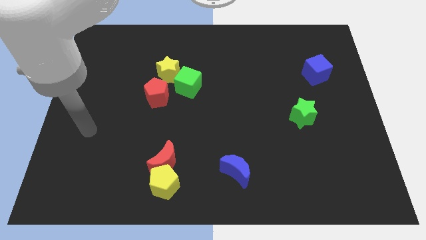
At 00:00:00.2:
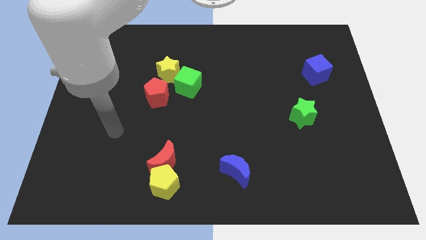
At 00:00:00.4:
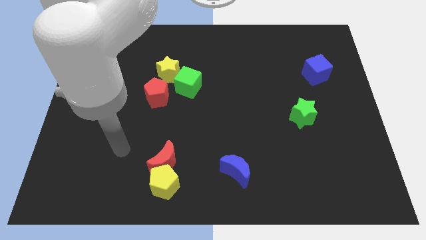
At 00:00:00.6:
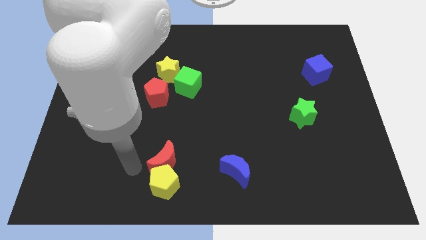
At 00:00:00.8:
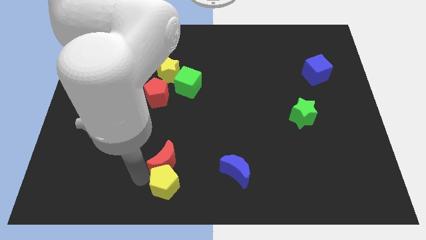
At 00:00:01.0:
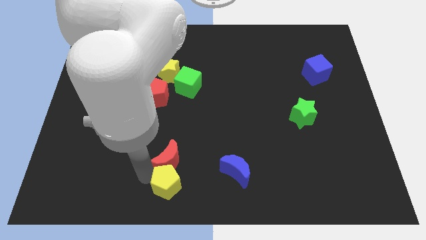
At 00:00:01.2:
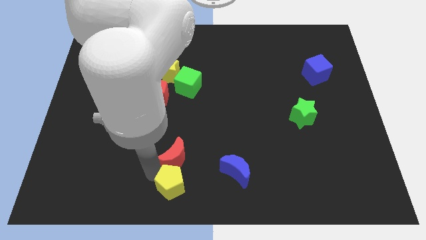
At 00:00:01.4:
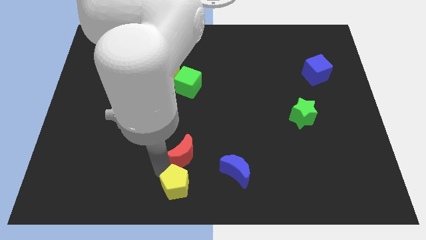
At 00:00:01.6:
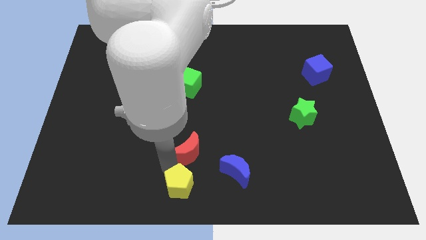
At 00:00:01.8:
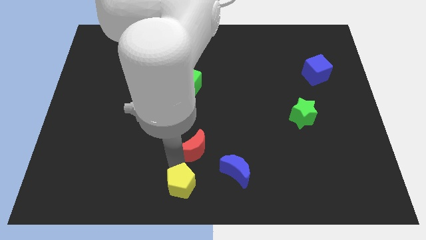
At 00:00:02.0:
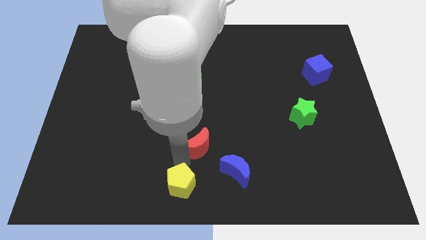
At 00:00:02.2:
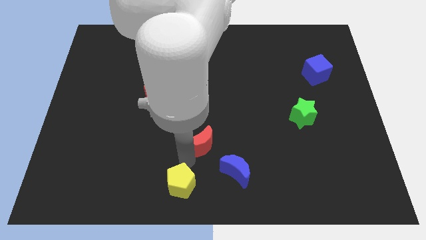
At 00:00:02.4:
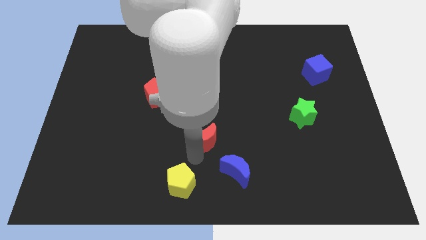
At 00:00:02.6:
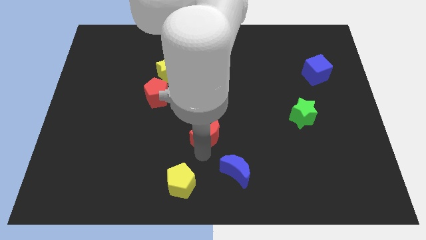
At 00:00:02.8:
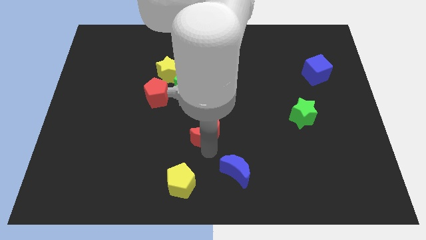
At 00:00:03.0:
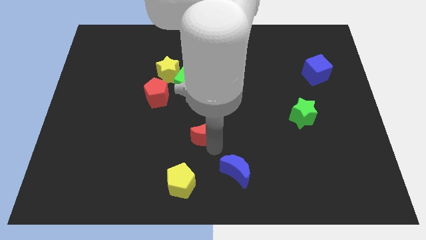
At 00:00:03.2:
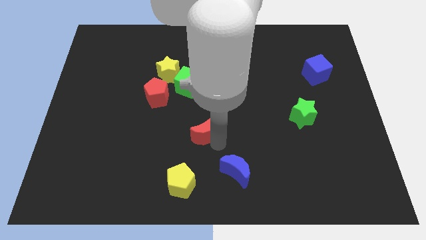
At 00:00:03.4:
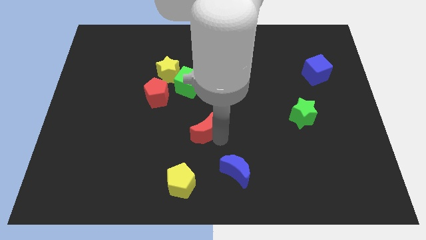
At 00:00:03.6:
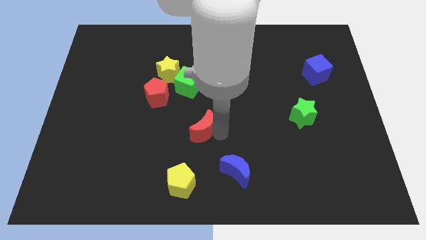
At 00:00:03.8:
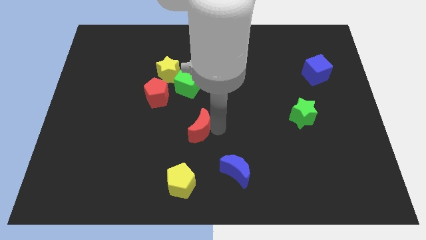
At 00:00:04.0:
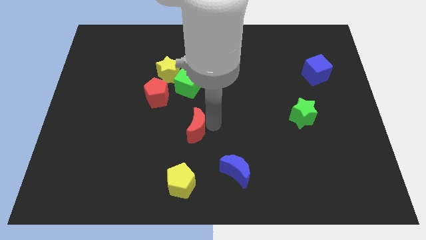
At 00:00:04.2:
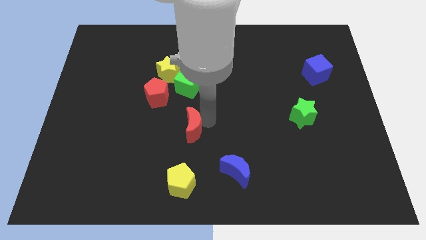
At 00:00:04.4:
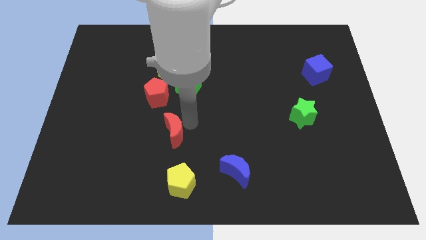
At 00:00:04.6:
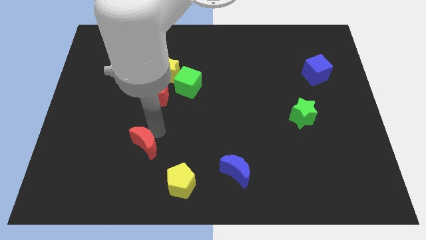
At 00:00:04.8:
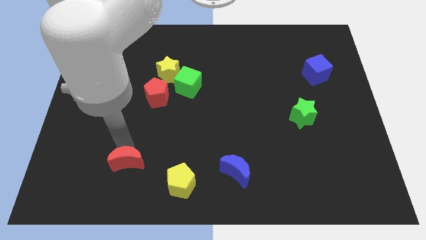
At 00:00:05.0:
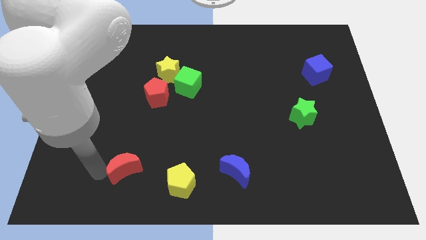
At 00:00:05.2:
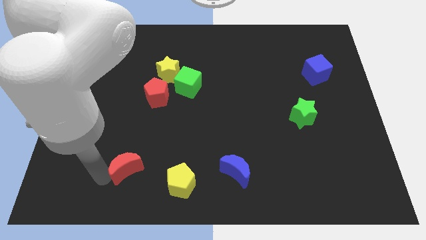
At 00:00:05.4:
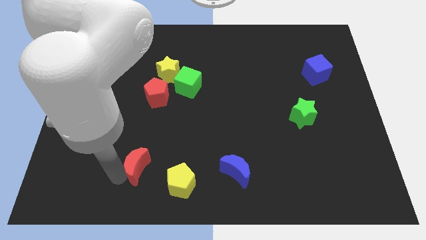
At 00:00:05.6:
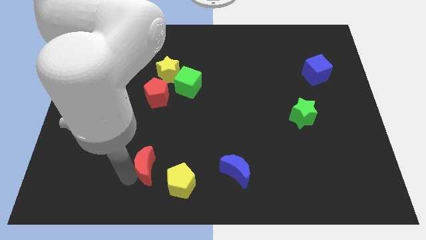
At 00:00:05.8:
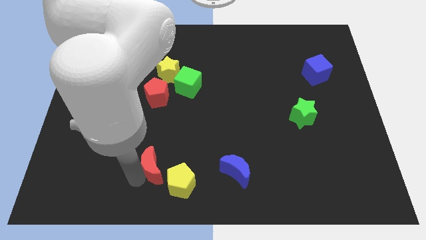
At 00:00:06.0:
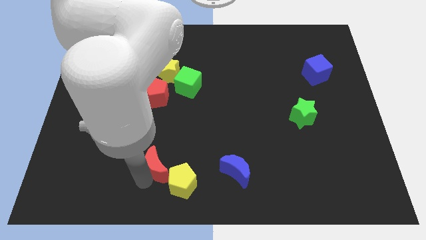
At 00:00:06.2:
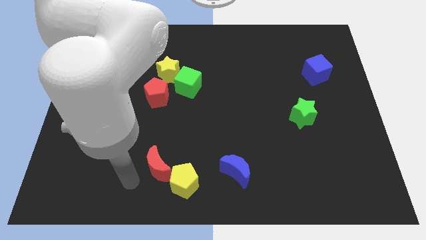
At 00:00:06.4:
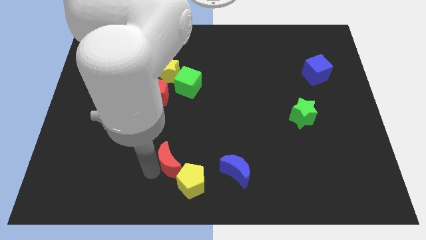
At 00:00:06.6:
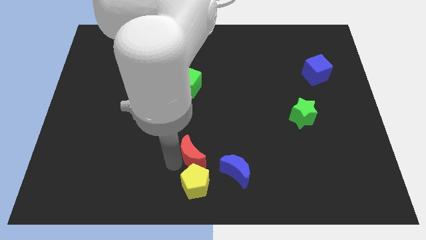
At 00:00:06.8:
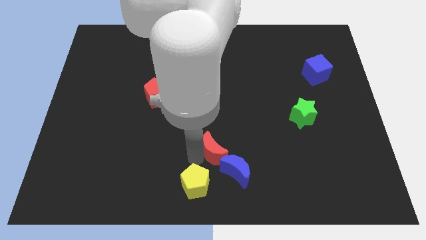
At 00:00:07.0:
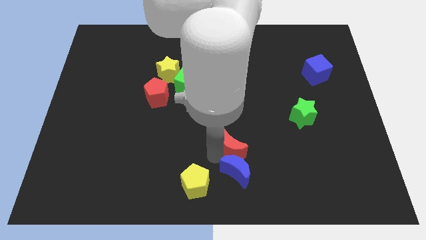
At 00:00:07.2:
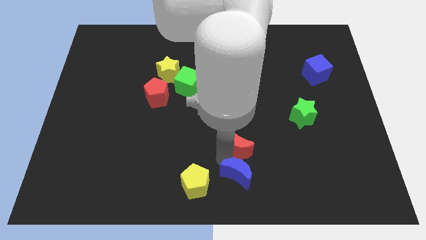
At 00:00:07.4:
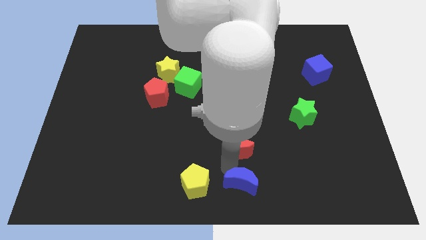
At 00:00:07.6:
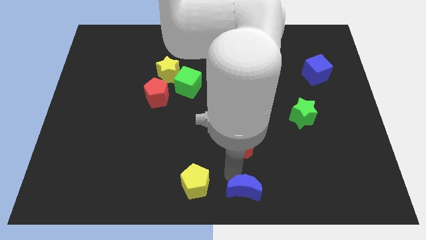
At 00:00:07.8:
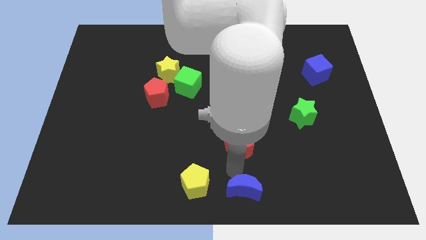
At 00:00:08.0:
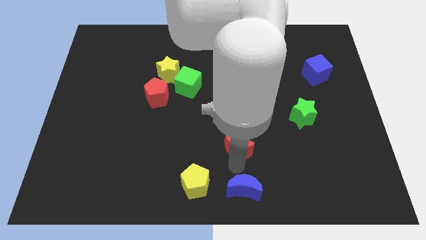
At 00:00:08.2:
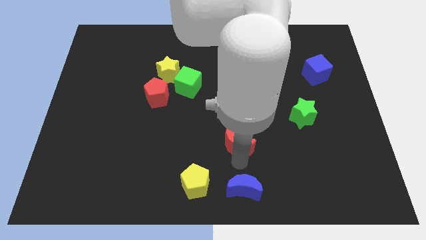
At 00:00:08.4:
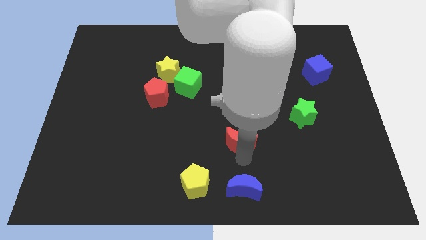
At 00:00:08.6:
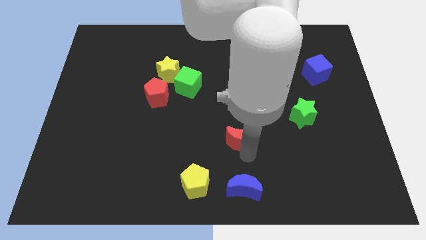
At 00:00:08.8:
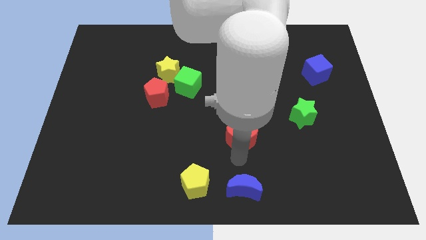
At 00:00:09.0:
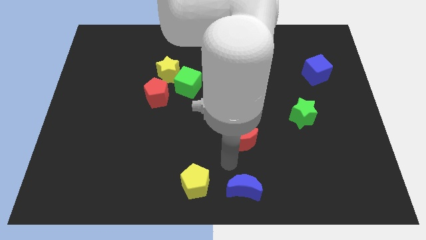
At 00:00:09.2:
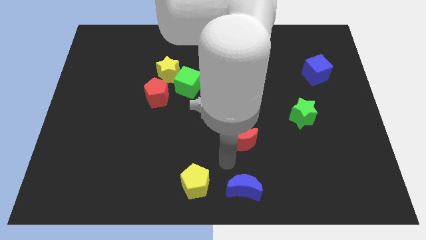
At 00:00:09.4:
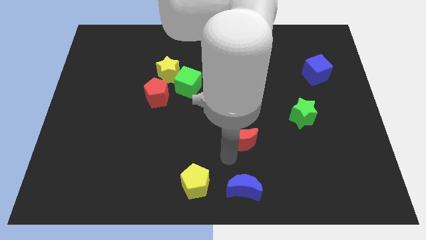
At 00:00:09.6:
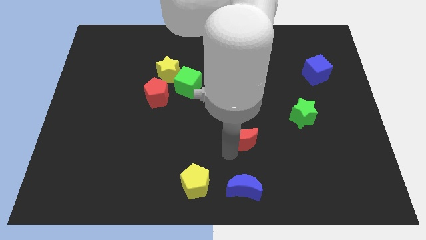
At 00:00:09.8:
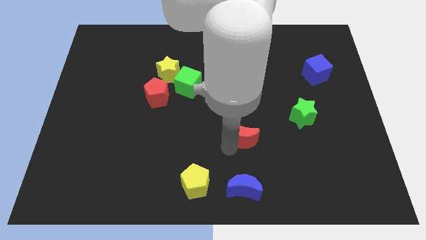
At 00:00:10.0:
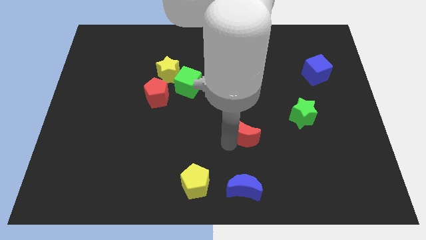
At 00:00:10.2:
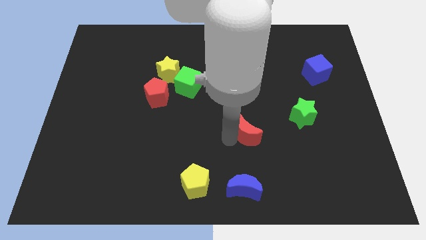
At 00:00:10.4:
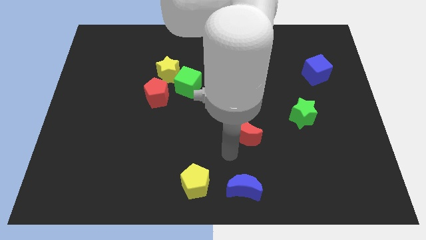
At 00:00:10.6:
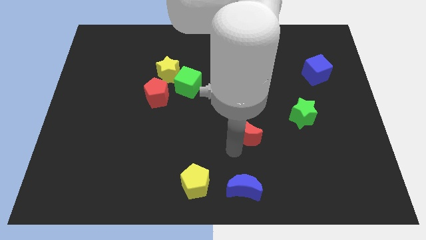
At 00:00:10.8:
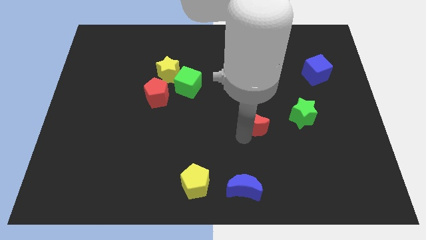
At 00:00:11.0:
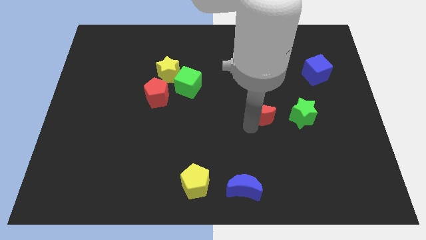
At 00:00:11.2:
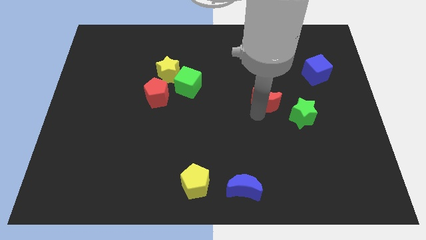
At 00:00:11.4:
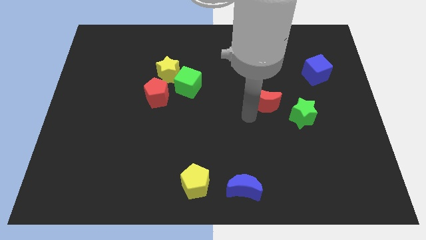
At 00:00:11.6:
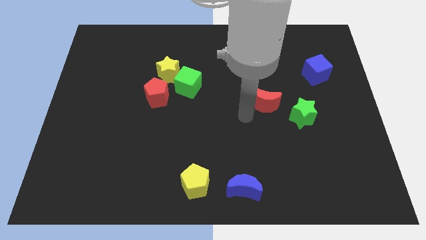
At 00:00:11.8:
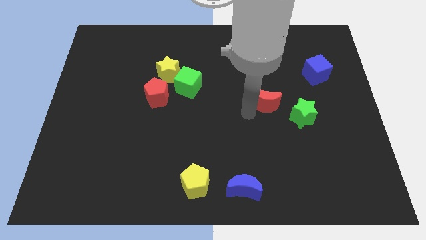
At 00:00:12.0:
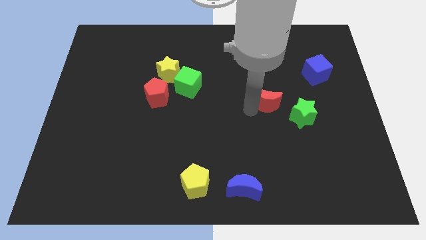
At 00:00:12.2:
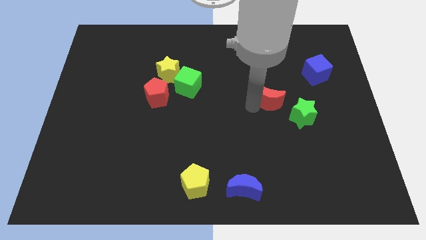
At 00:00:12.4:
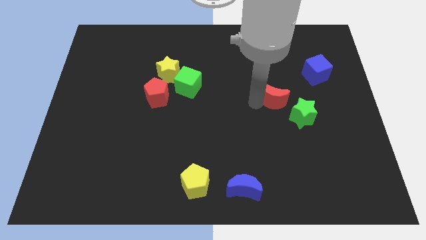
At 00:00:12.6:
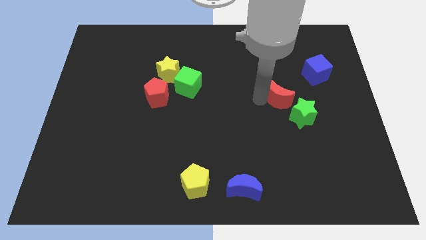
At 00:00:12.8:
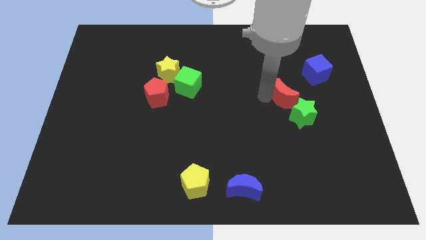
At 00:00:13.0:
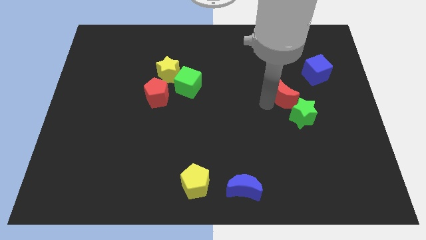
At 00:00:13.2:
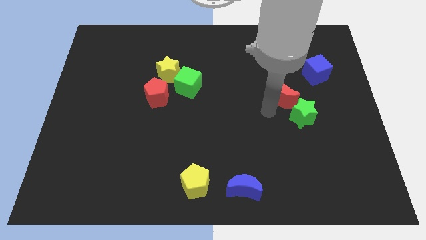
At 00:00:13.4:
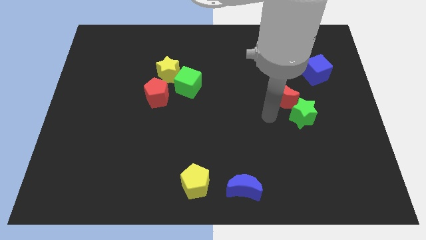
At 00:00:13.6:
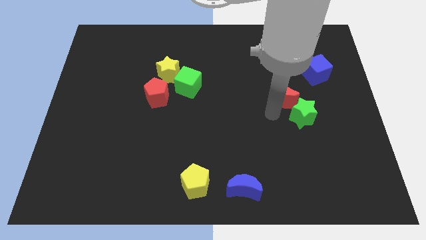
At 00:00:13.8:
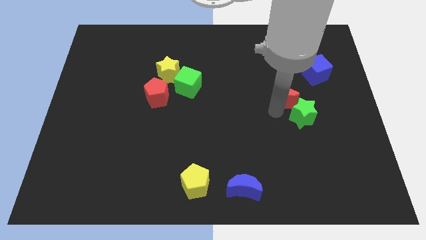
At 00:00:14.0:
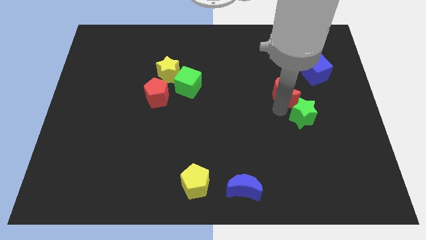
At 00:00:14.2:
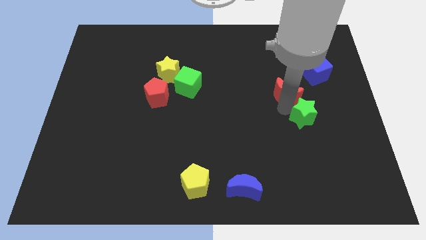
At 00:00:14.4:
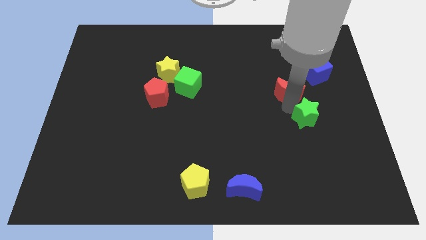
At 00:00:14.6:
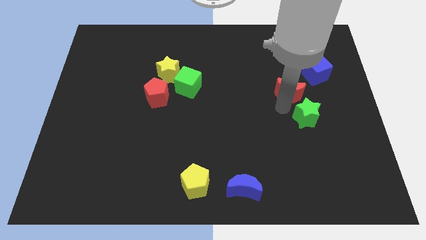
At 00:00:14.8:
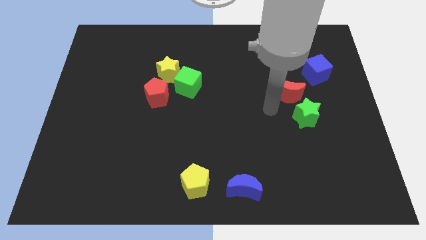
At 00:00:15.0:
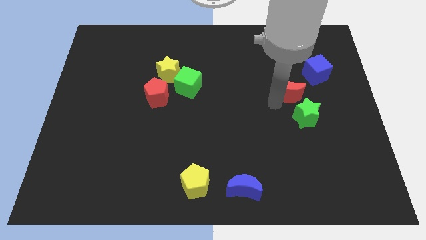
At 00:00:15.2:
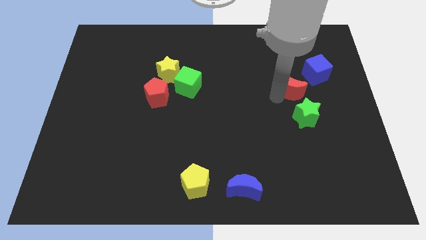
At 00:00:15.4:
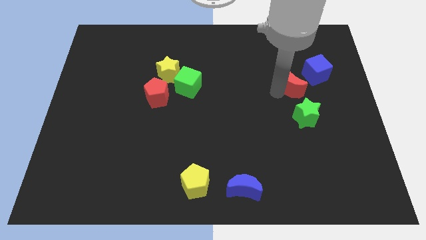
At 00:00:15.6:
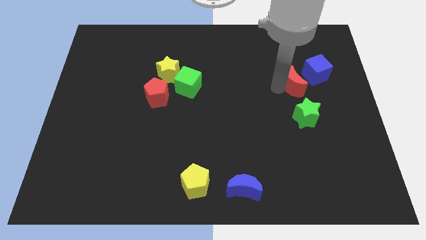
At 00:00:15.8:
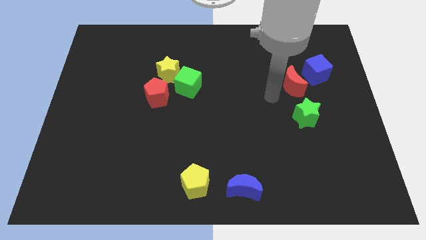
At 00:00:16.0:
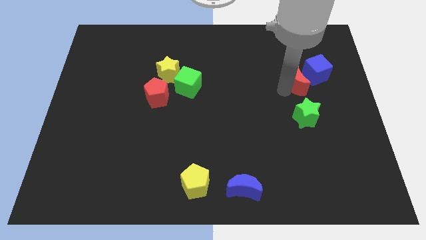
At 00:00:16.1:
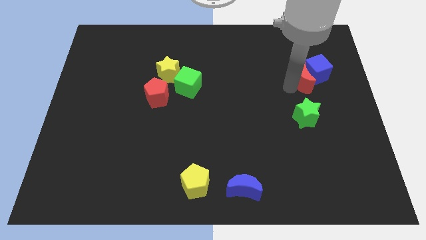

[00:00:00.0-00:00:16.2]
slide the red moon close to the blue cube
